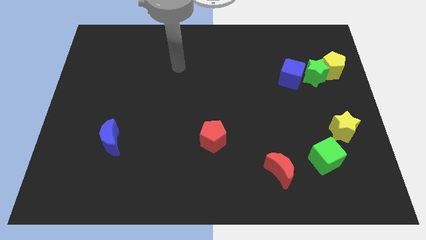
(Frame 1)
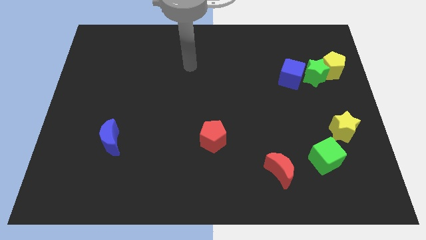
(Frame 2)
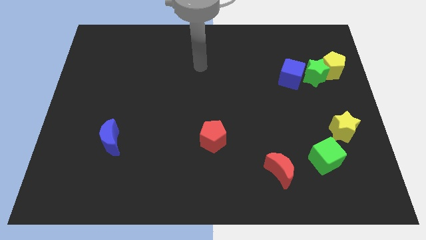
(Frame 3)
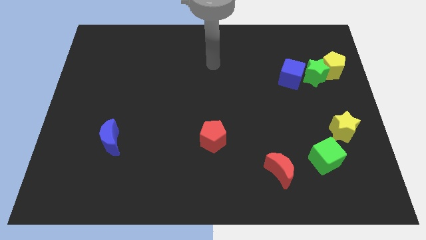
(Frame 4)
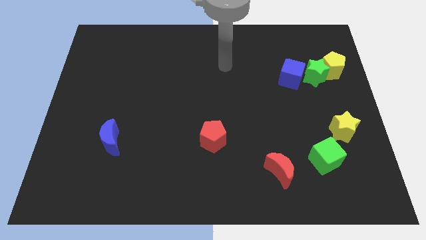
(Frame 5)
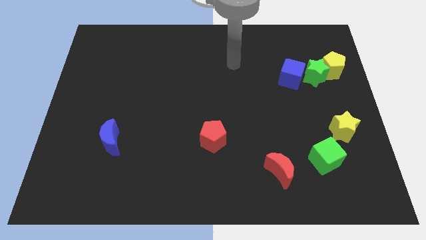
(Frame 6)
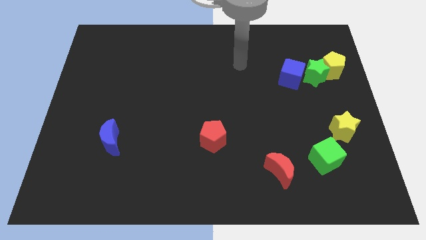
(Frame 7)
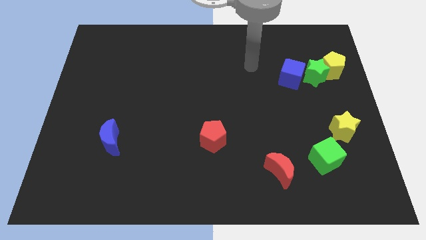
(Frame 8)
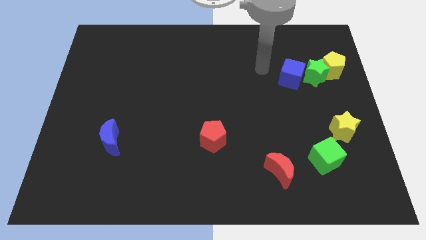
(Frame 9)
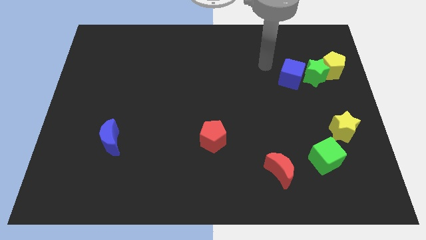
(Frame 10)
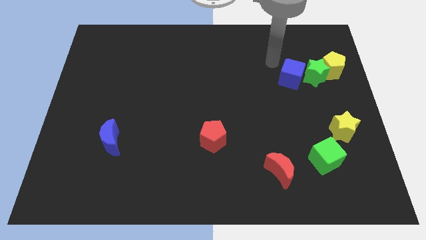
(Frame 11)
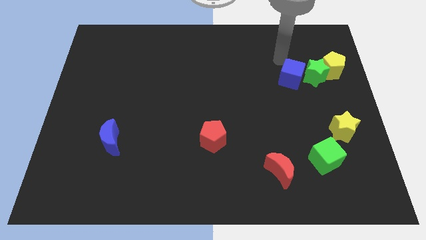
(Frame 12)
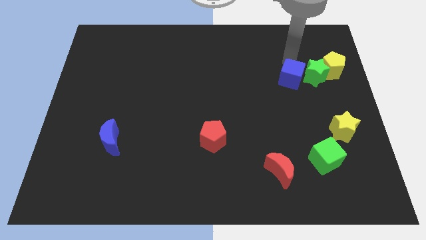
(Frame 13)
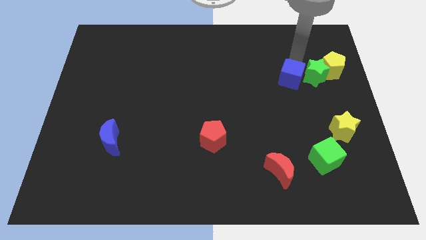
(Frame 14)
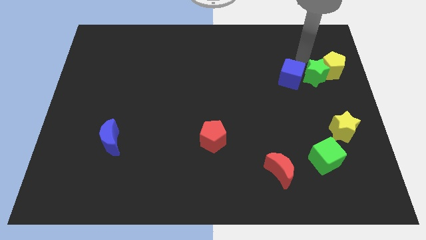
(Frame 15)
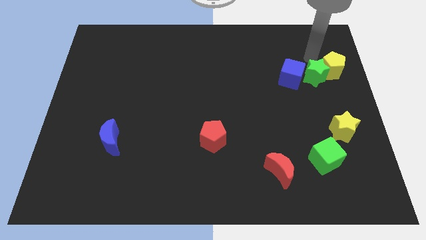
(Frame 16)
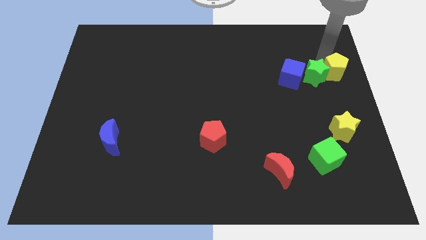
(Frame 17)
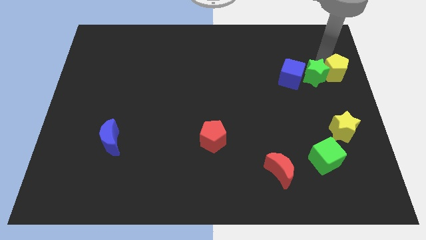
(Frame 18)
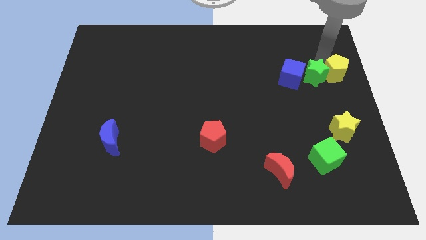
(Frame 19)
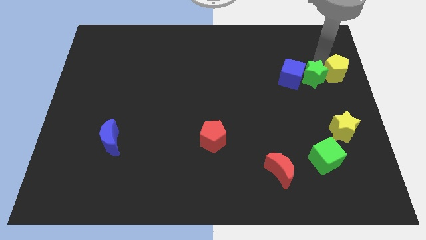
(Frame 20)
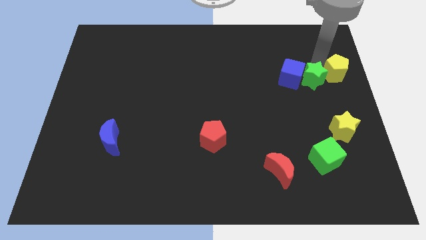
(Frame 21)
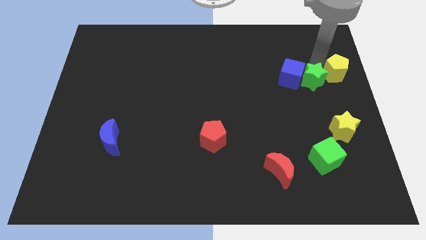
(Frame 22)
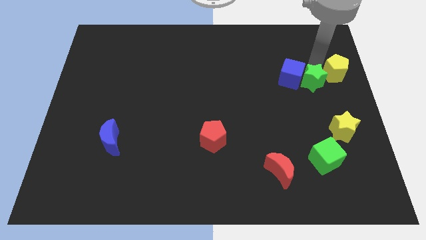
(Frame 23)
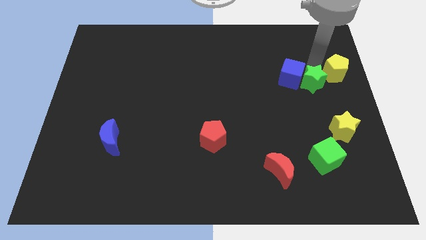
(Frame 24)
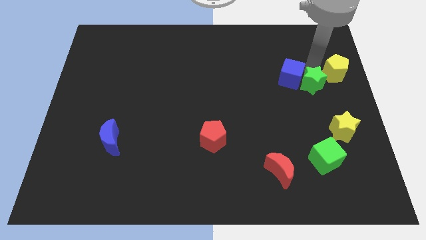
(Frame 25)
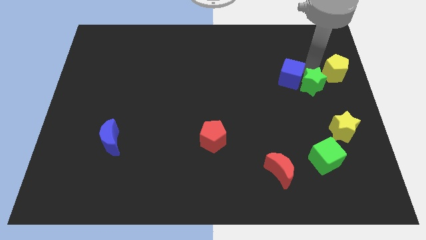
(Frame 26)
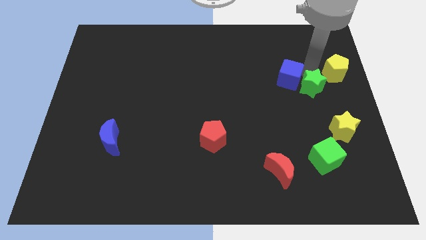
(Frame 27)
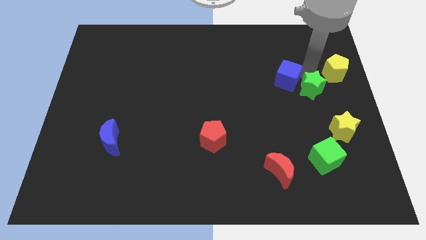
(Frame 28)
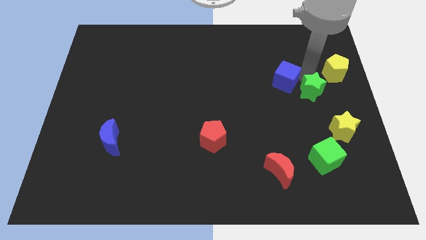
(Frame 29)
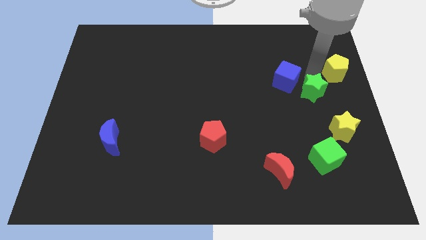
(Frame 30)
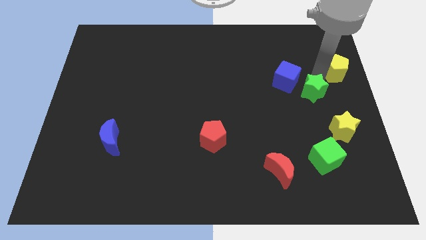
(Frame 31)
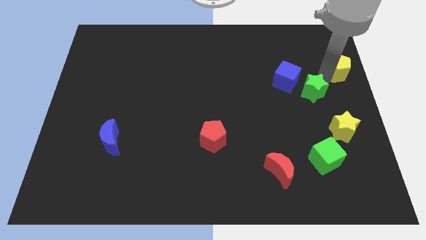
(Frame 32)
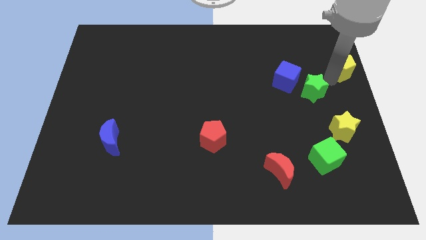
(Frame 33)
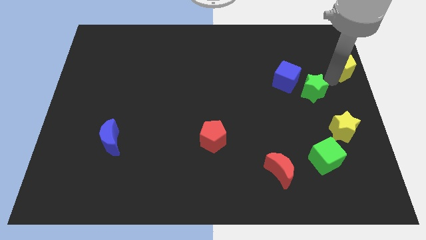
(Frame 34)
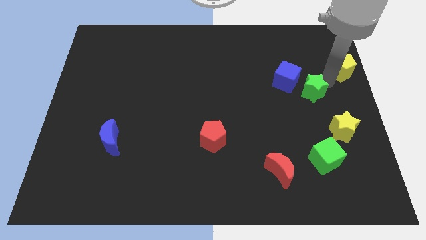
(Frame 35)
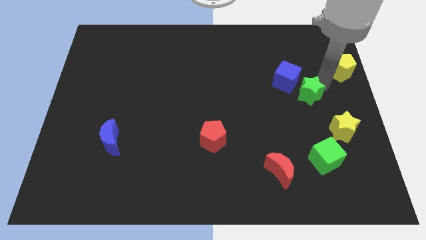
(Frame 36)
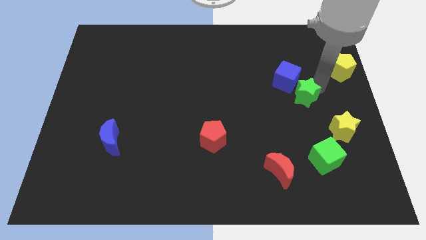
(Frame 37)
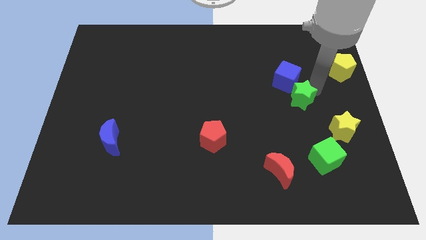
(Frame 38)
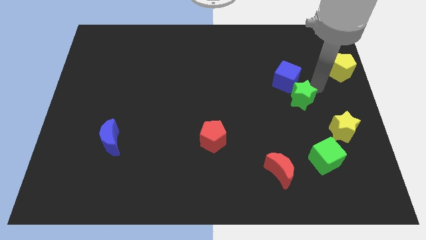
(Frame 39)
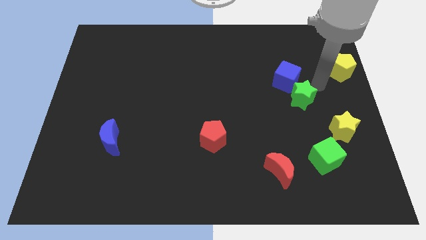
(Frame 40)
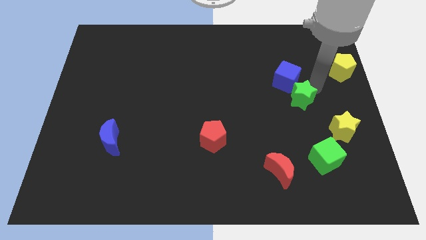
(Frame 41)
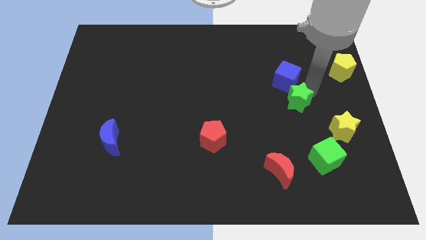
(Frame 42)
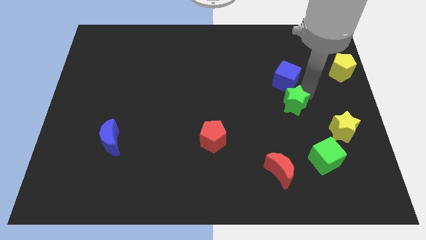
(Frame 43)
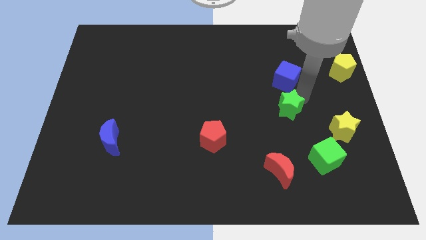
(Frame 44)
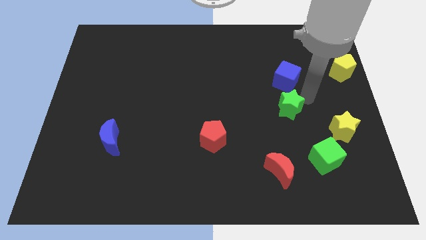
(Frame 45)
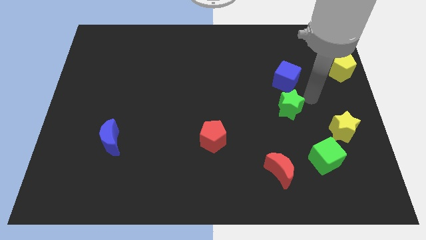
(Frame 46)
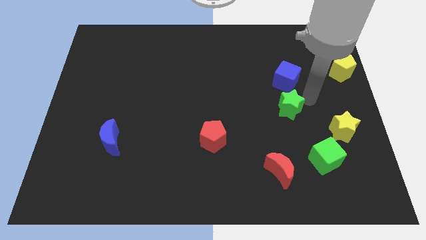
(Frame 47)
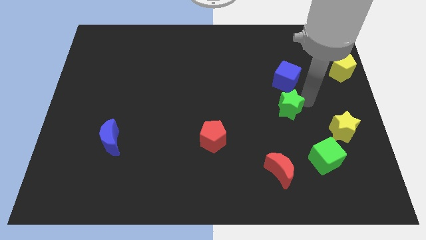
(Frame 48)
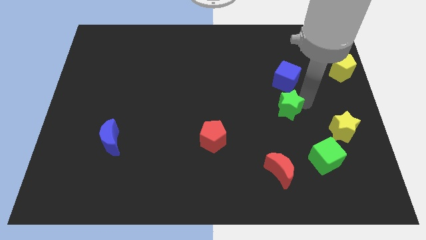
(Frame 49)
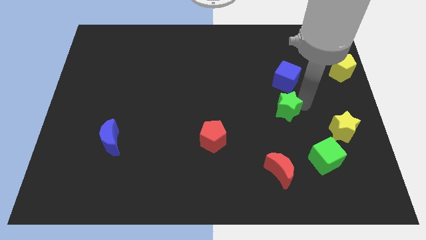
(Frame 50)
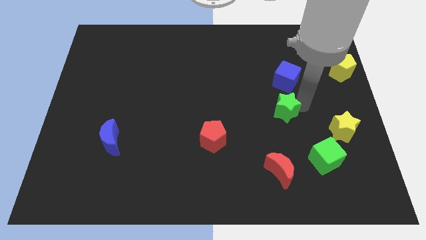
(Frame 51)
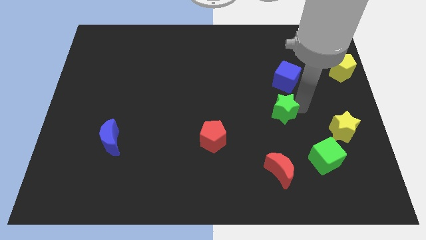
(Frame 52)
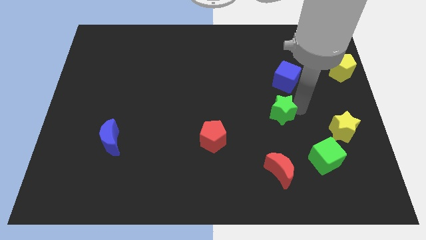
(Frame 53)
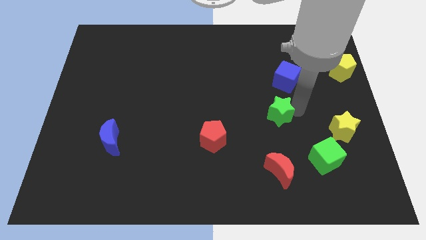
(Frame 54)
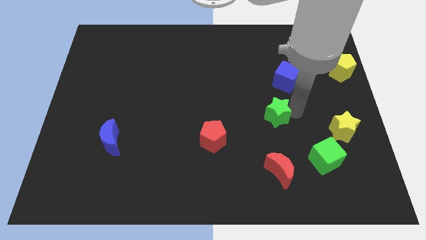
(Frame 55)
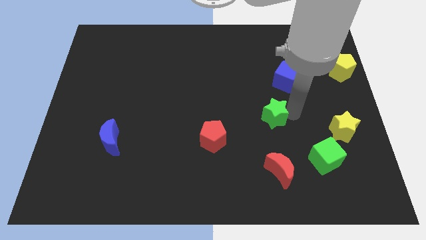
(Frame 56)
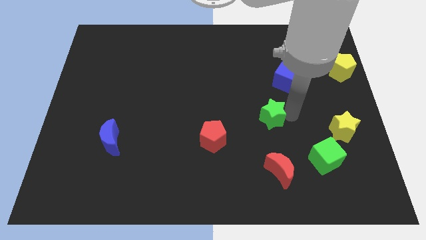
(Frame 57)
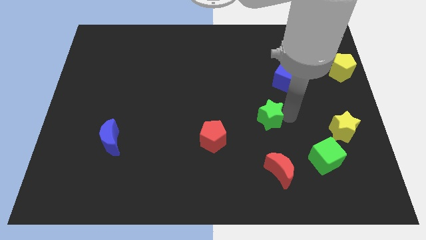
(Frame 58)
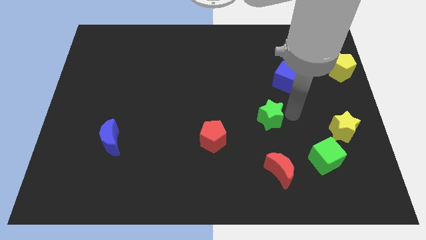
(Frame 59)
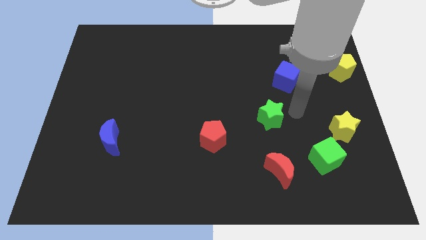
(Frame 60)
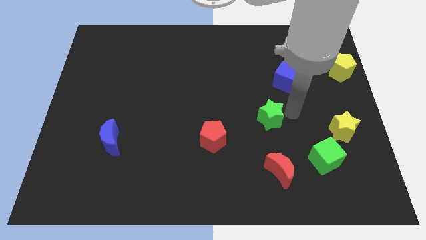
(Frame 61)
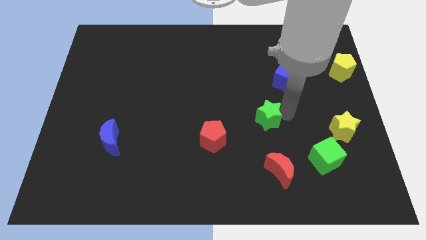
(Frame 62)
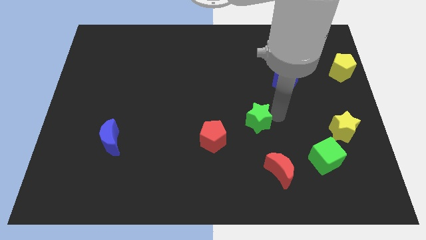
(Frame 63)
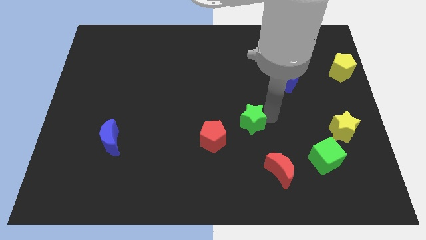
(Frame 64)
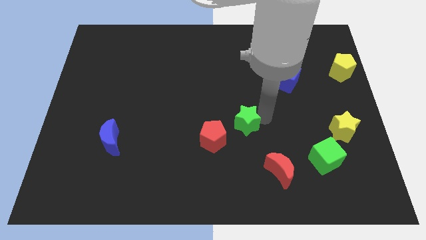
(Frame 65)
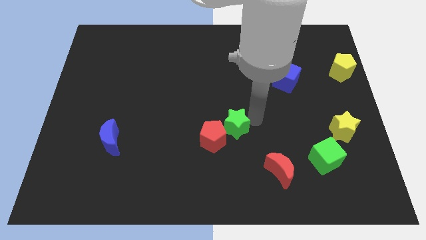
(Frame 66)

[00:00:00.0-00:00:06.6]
move the green star towards the red pentagon
